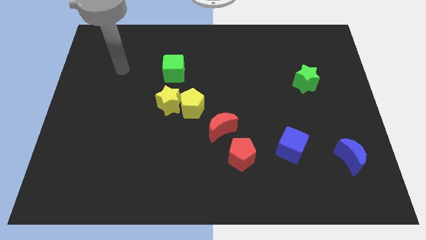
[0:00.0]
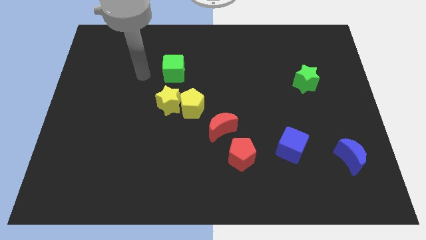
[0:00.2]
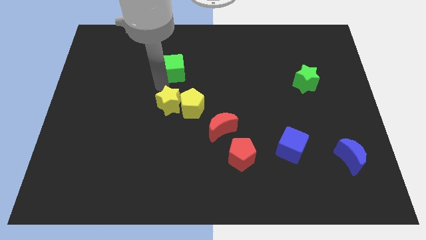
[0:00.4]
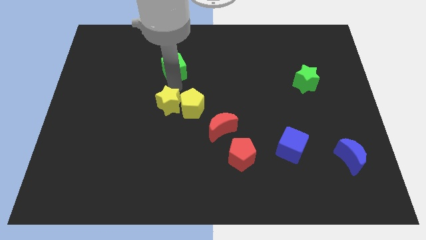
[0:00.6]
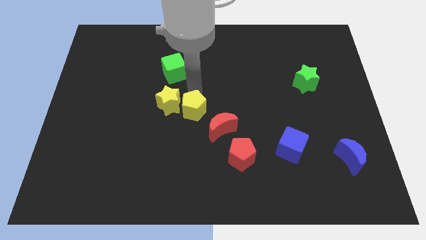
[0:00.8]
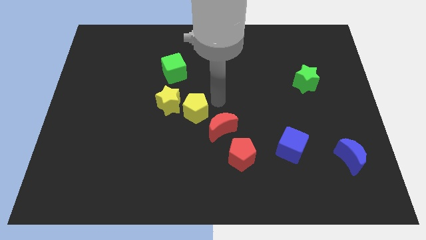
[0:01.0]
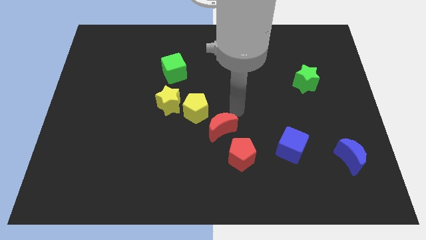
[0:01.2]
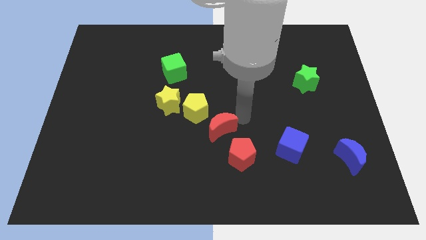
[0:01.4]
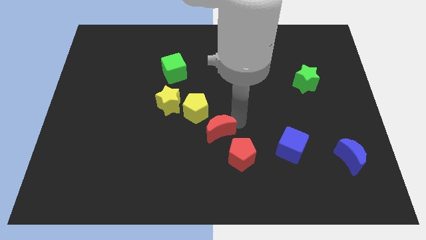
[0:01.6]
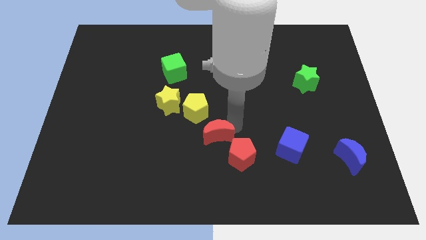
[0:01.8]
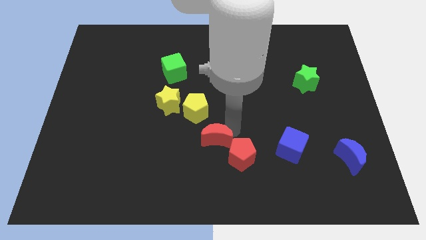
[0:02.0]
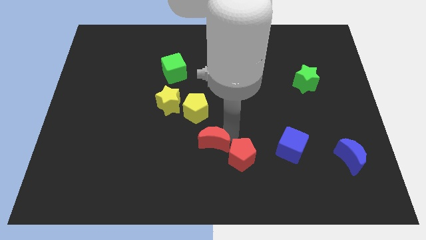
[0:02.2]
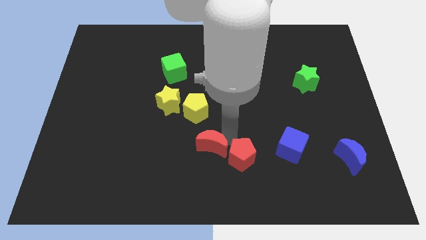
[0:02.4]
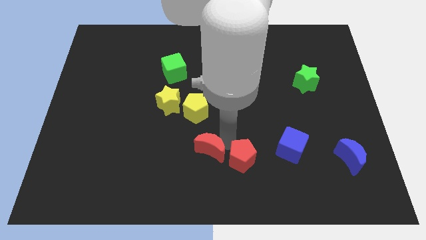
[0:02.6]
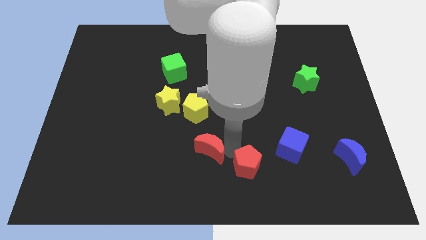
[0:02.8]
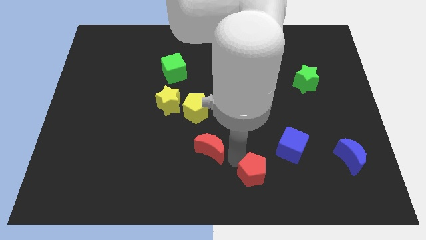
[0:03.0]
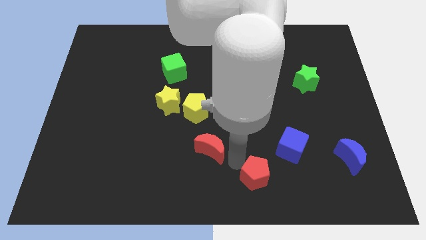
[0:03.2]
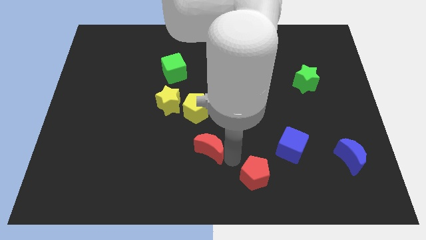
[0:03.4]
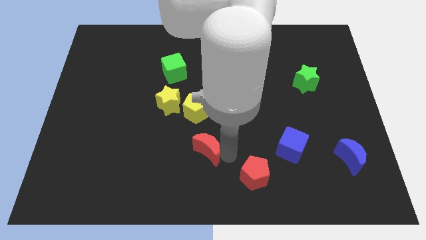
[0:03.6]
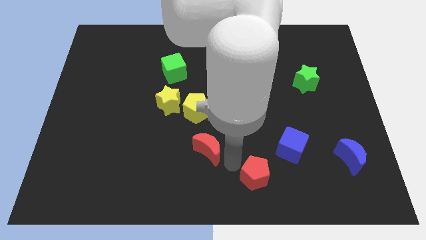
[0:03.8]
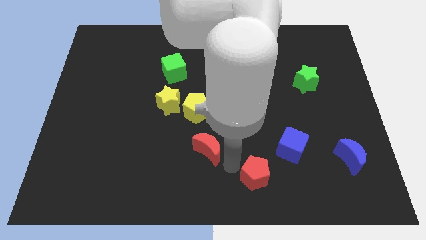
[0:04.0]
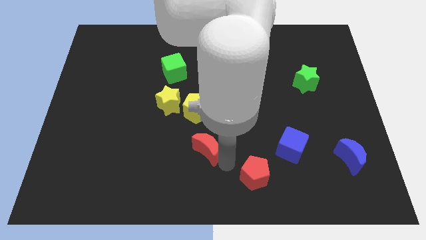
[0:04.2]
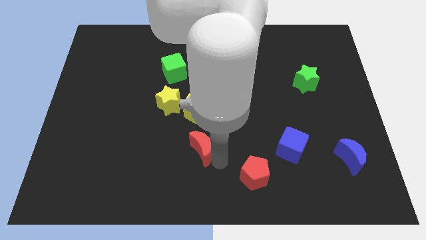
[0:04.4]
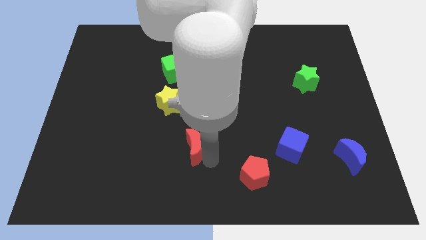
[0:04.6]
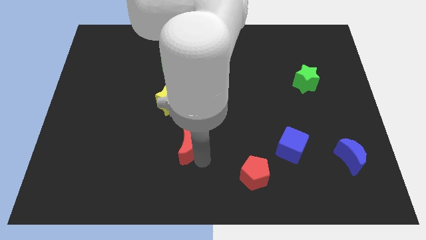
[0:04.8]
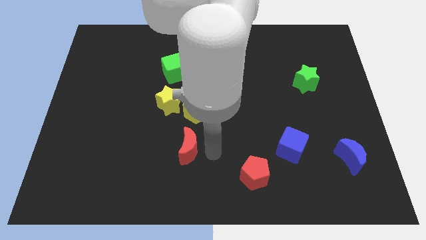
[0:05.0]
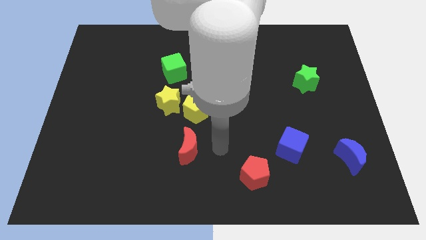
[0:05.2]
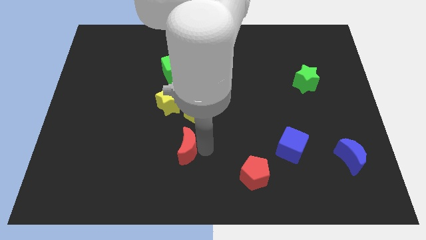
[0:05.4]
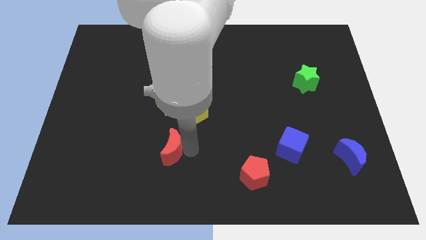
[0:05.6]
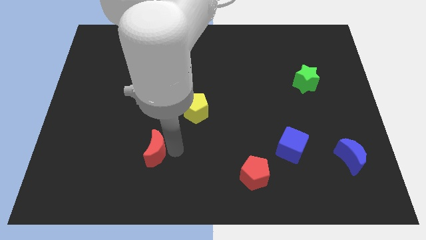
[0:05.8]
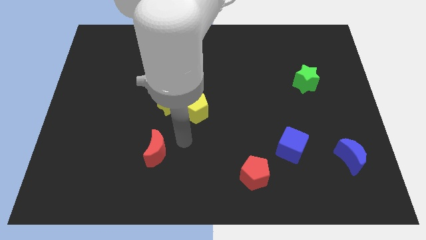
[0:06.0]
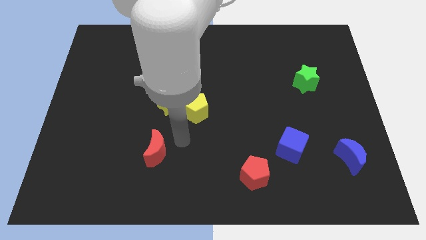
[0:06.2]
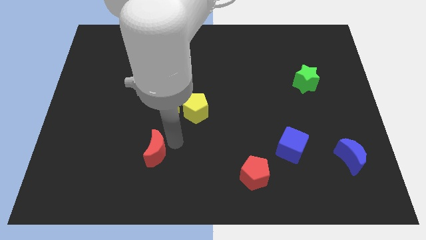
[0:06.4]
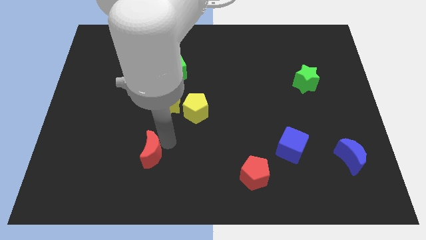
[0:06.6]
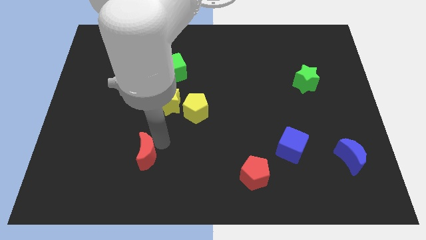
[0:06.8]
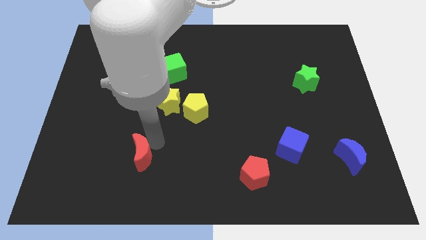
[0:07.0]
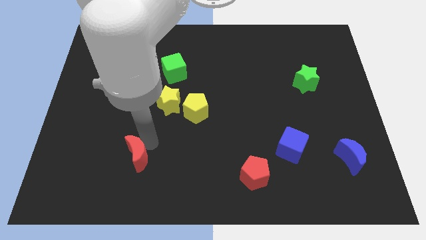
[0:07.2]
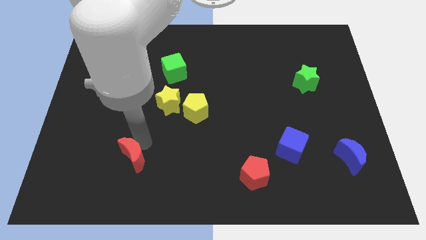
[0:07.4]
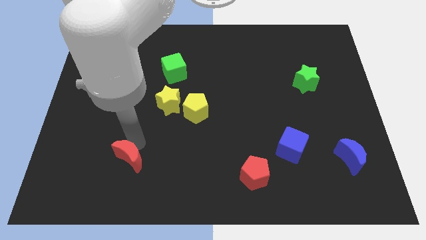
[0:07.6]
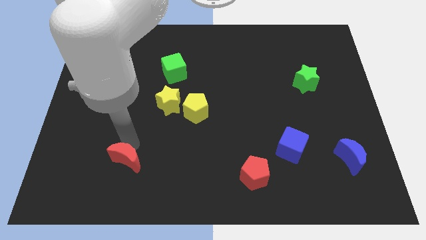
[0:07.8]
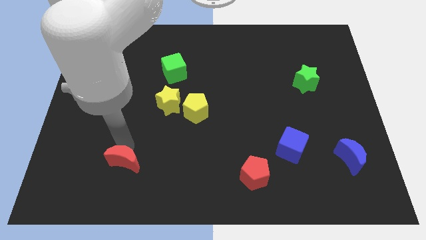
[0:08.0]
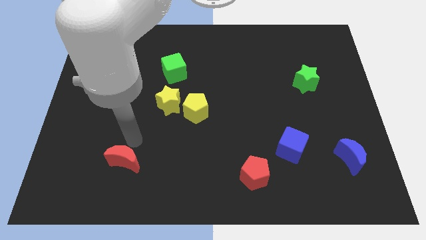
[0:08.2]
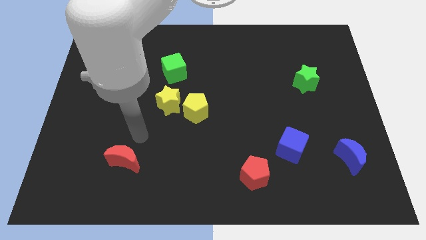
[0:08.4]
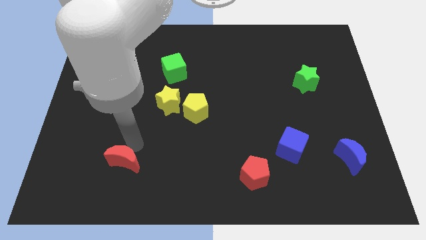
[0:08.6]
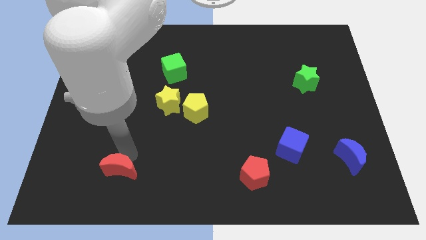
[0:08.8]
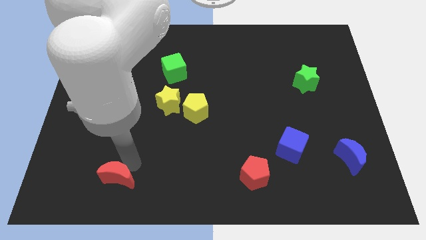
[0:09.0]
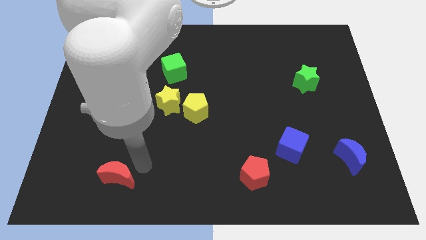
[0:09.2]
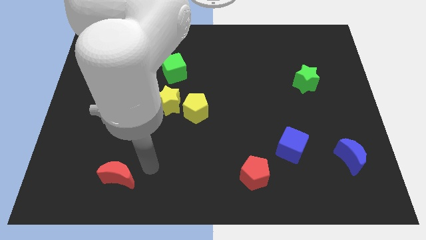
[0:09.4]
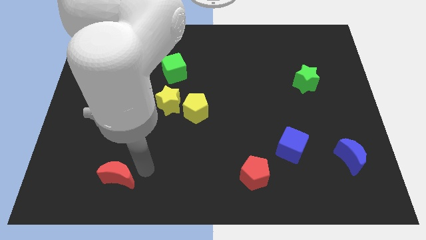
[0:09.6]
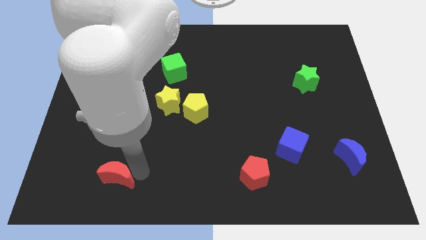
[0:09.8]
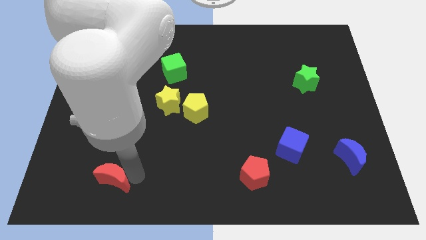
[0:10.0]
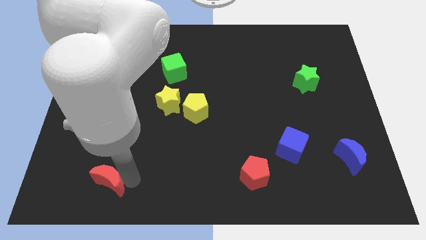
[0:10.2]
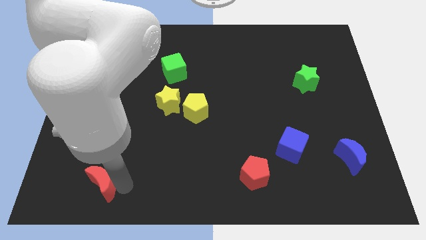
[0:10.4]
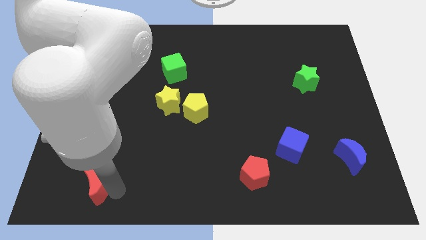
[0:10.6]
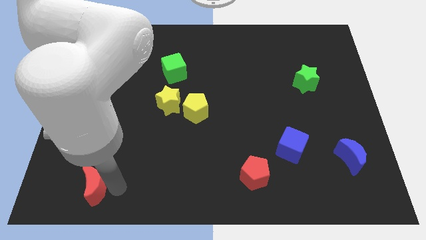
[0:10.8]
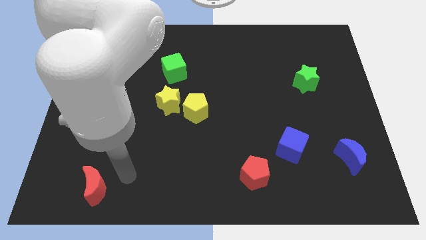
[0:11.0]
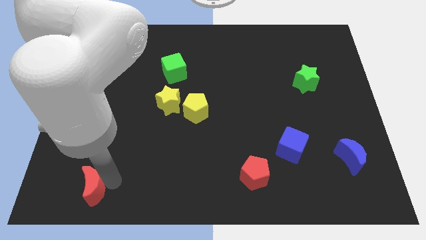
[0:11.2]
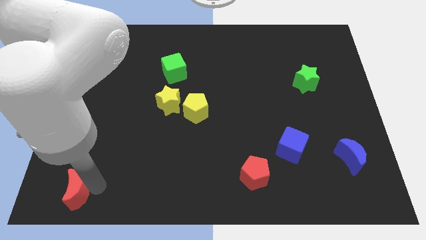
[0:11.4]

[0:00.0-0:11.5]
put the red moon to the bottom left
